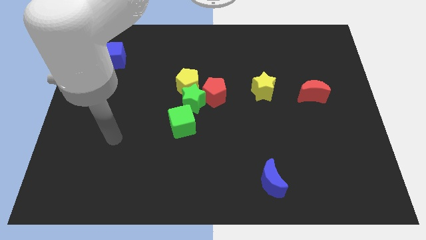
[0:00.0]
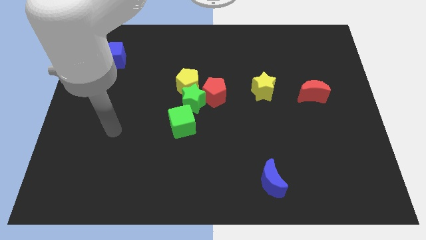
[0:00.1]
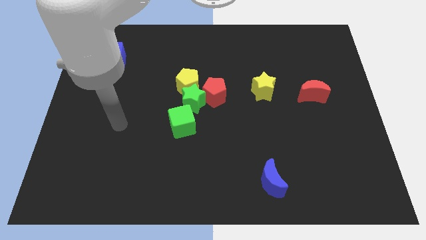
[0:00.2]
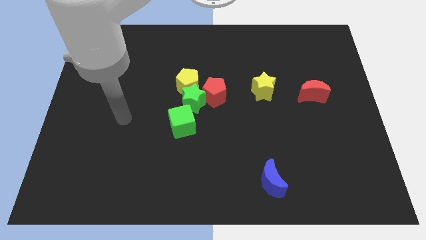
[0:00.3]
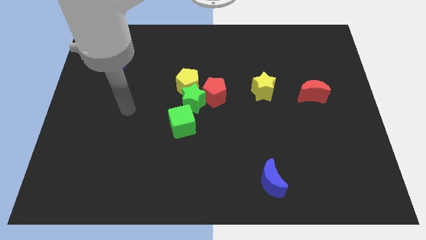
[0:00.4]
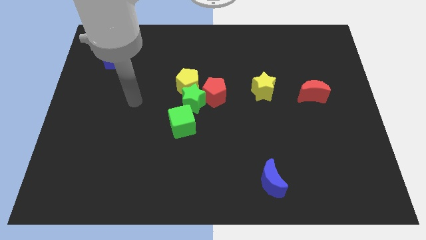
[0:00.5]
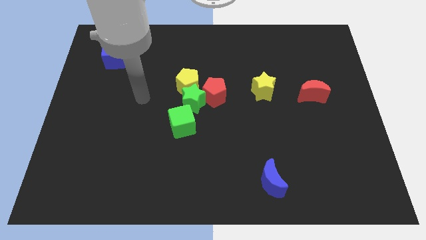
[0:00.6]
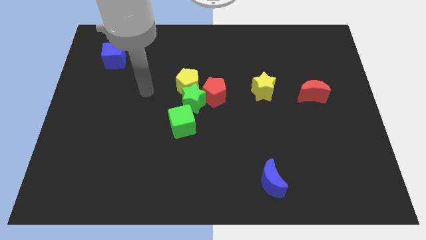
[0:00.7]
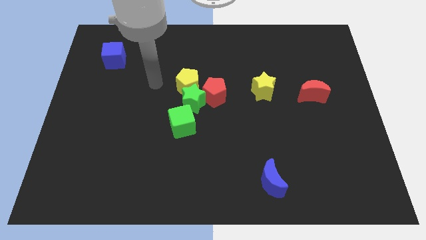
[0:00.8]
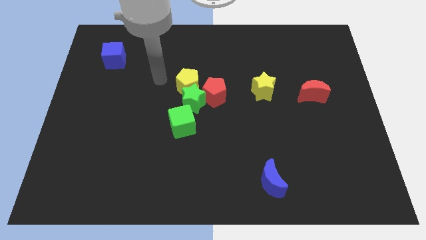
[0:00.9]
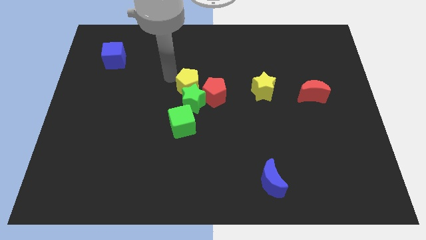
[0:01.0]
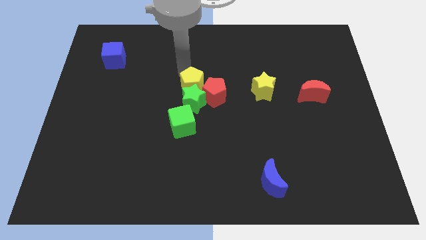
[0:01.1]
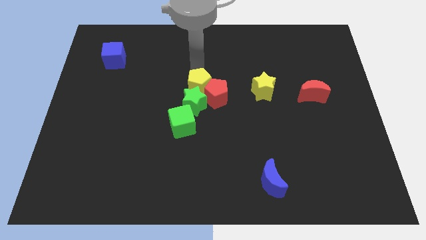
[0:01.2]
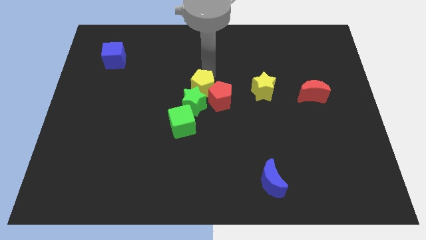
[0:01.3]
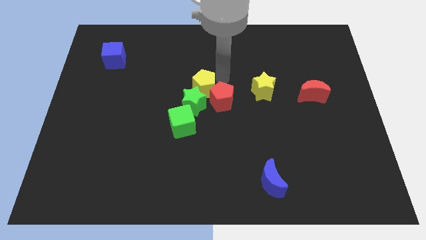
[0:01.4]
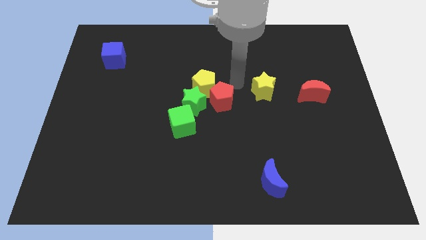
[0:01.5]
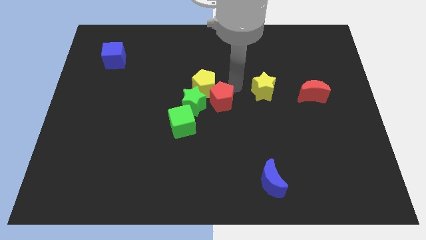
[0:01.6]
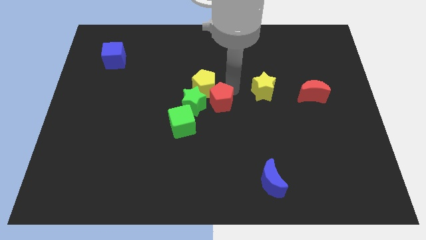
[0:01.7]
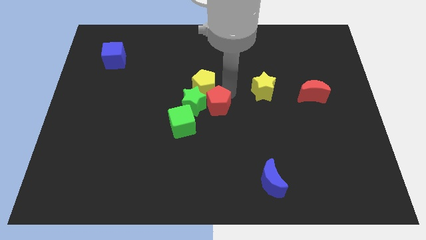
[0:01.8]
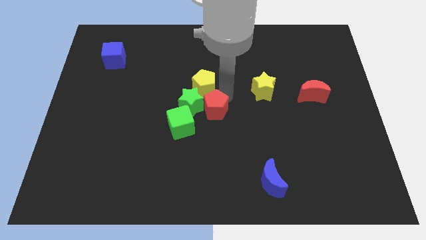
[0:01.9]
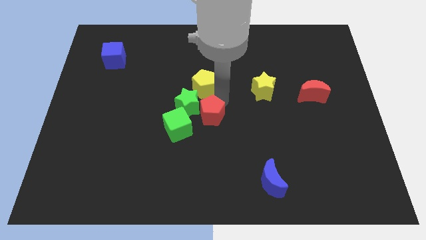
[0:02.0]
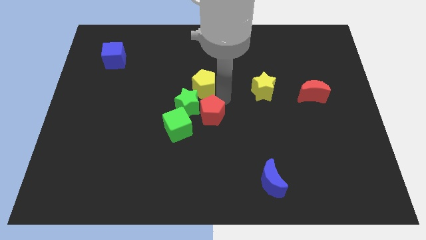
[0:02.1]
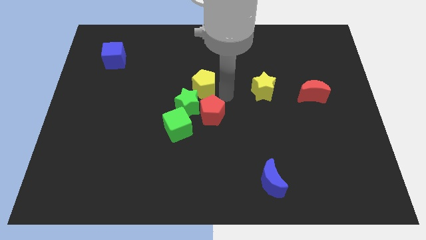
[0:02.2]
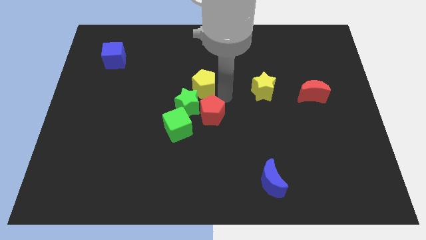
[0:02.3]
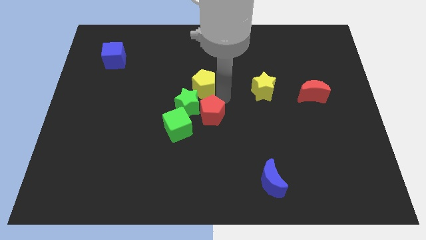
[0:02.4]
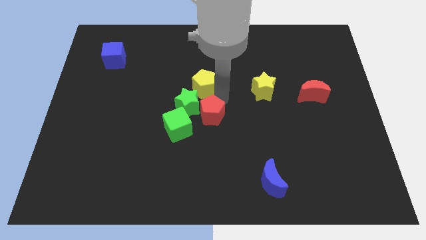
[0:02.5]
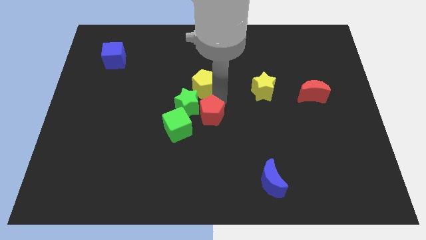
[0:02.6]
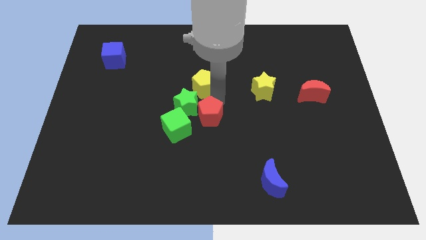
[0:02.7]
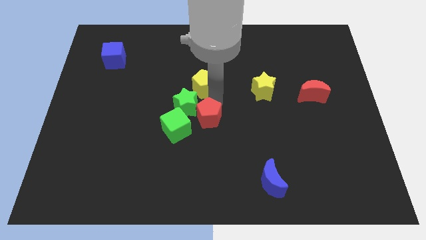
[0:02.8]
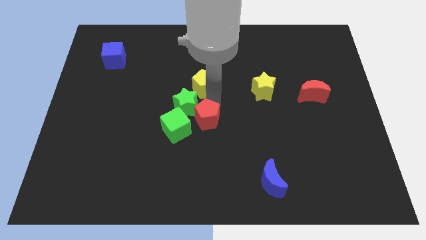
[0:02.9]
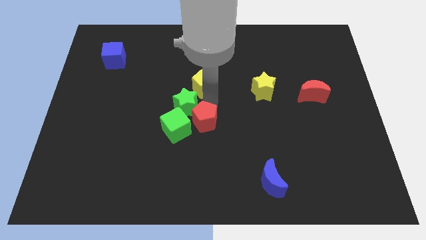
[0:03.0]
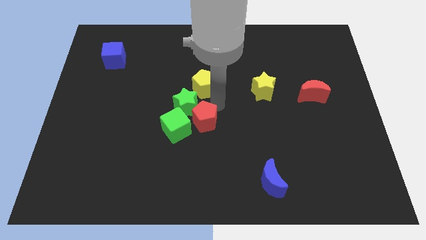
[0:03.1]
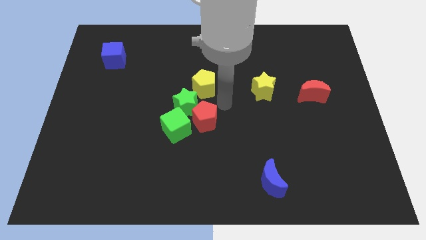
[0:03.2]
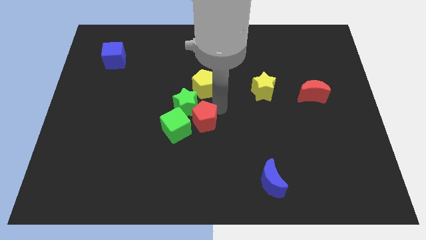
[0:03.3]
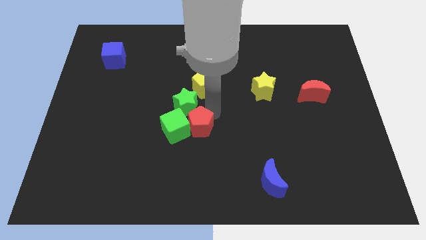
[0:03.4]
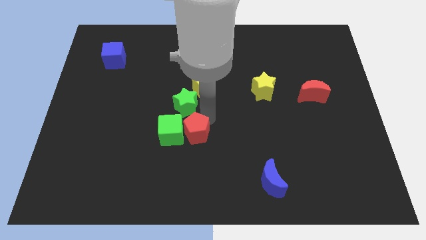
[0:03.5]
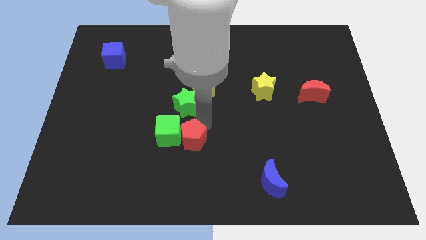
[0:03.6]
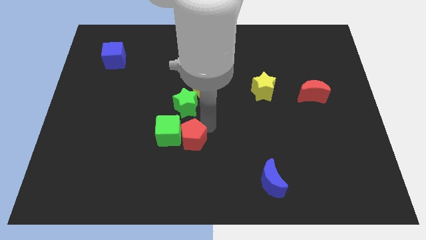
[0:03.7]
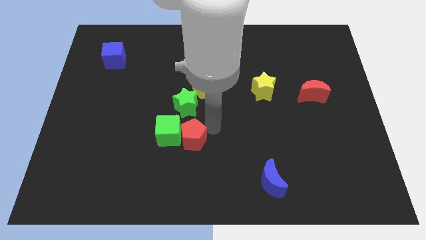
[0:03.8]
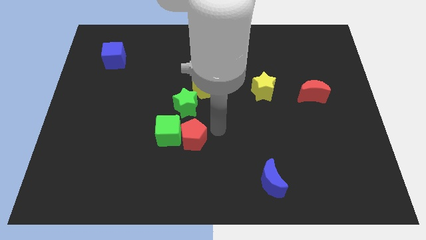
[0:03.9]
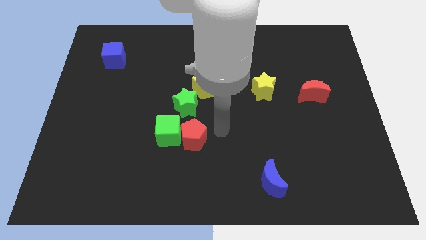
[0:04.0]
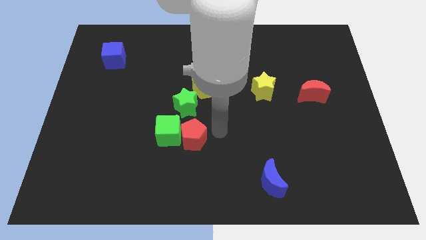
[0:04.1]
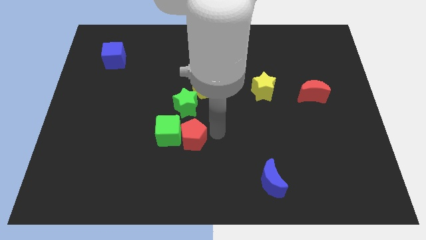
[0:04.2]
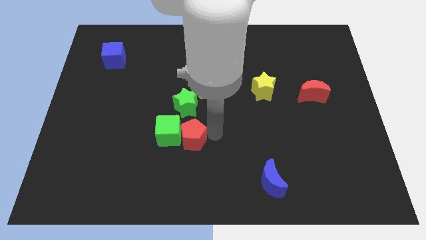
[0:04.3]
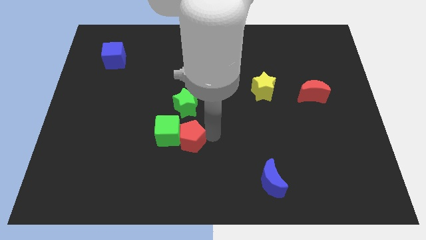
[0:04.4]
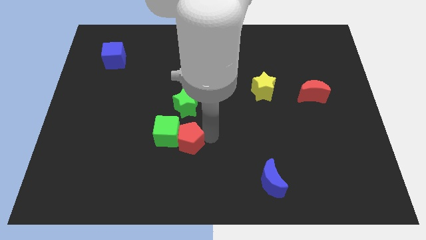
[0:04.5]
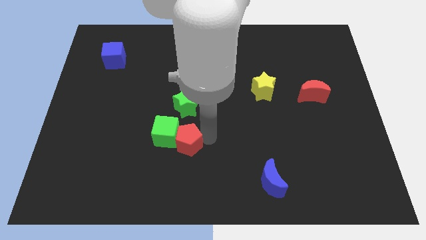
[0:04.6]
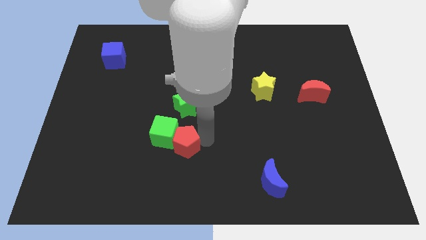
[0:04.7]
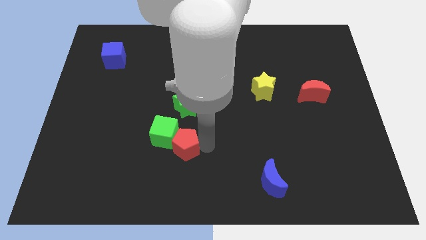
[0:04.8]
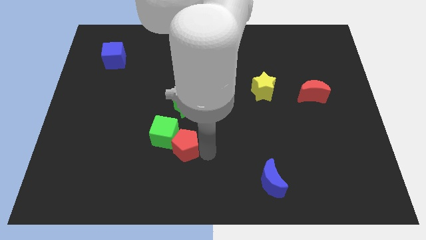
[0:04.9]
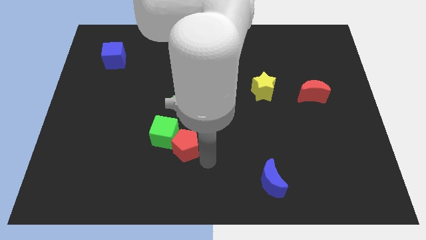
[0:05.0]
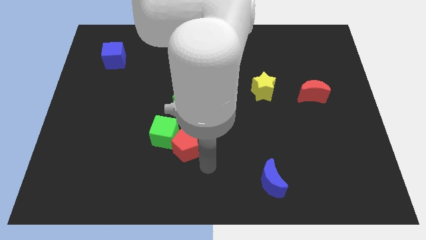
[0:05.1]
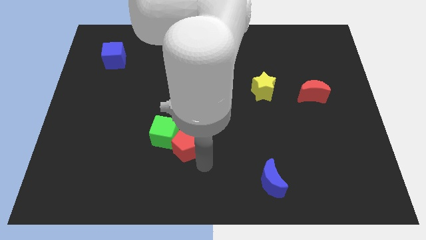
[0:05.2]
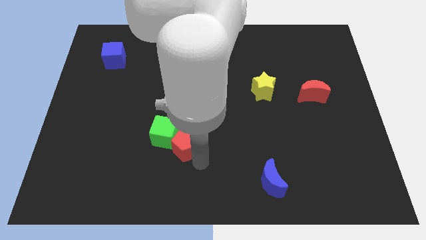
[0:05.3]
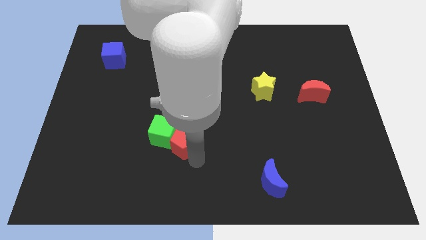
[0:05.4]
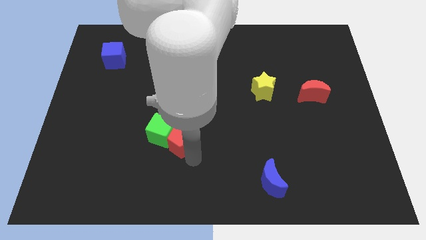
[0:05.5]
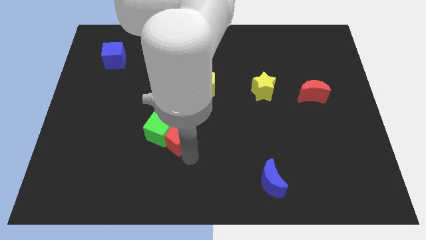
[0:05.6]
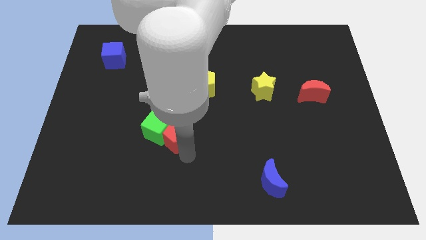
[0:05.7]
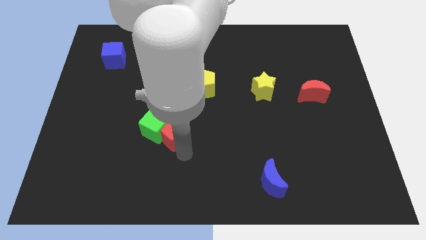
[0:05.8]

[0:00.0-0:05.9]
slide the red pentagon to the bottom left side of the green star

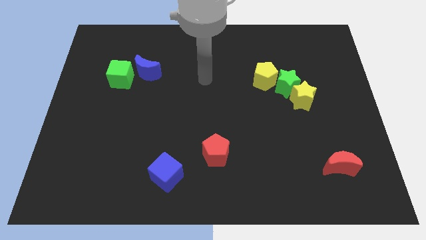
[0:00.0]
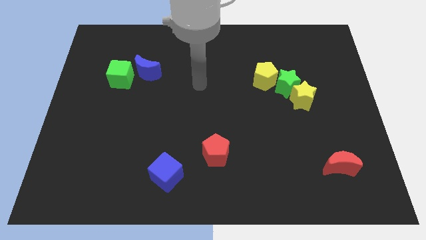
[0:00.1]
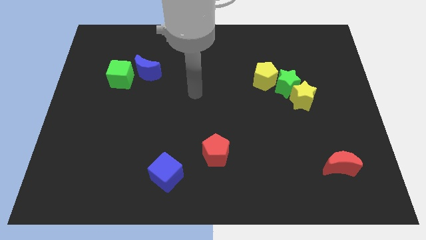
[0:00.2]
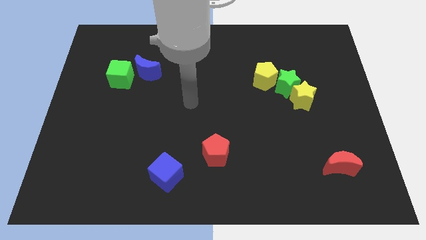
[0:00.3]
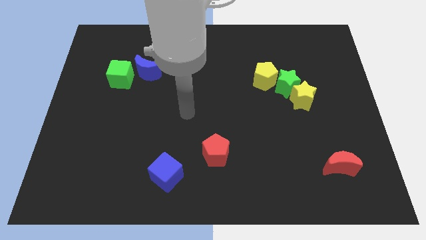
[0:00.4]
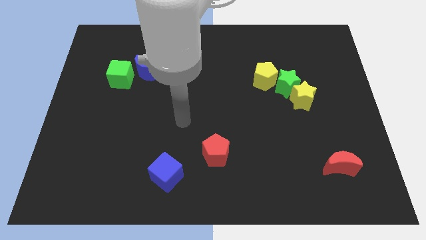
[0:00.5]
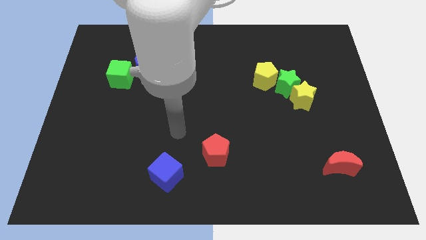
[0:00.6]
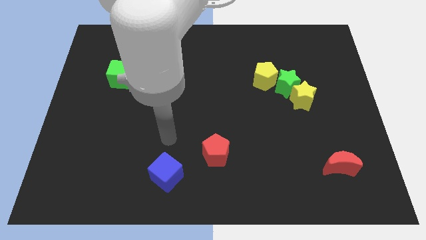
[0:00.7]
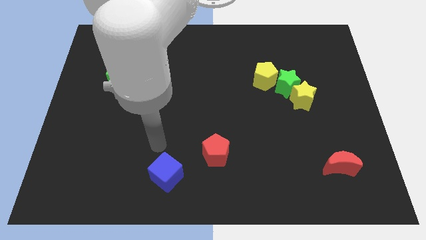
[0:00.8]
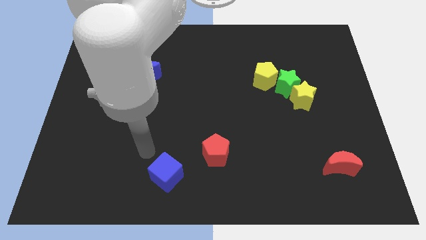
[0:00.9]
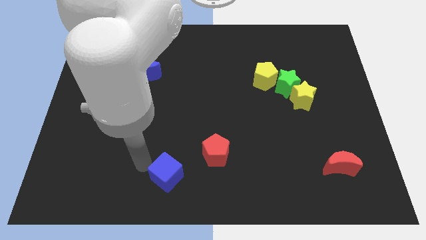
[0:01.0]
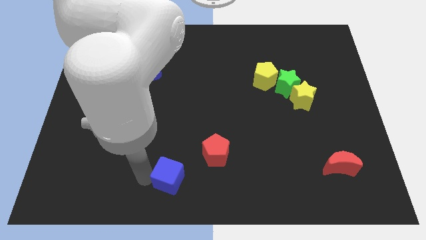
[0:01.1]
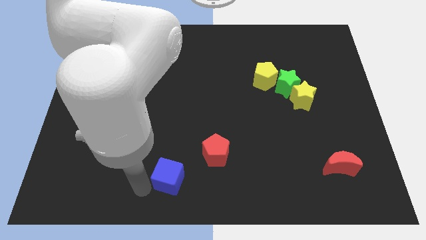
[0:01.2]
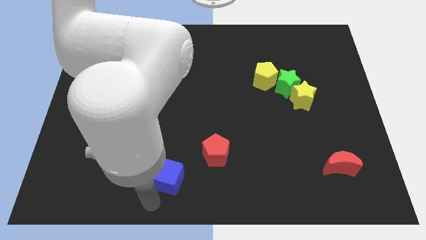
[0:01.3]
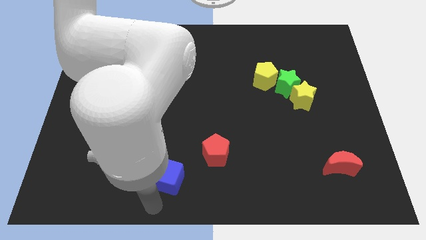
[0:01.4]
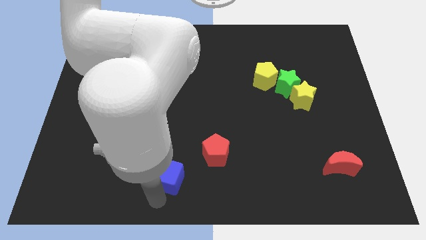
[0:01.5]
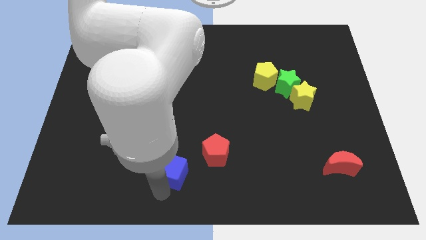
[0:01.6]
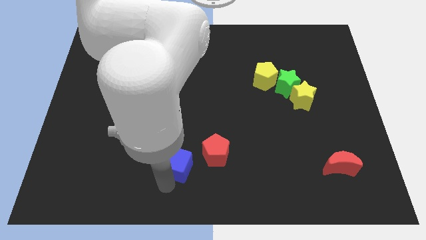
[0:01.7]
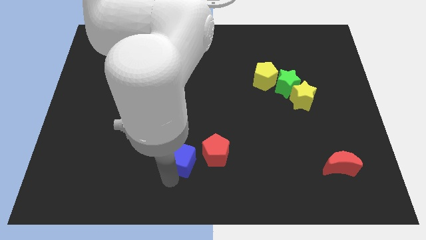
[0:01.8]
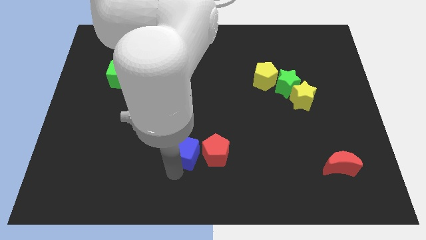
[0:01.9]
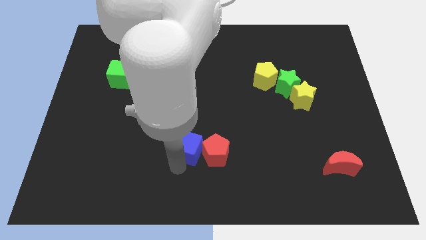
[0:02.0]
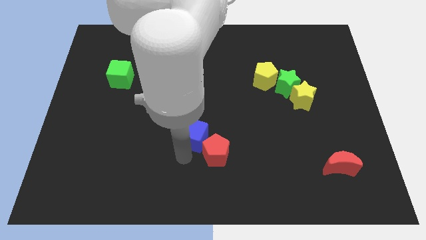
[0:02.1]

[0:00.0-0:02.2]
slide the blue cube to the top side of the red pentagon
